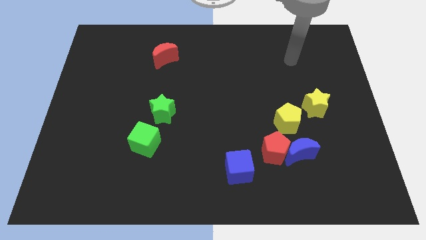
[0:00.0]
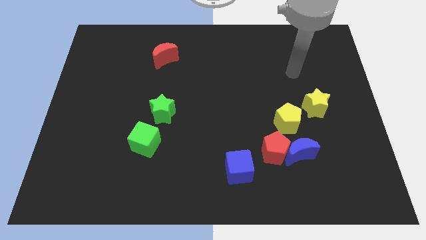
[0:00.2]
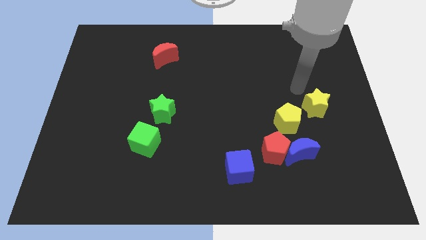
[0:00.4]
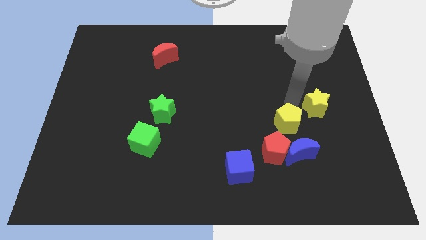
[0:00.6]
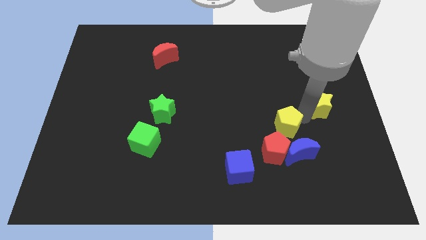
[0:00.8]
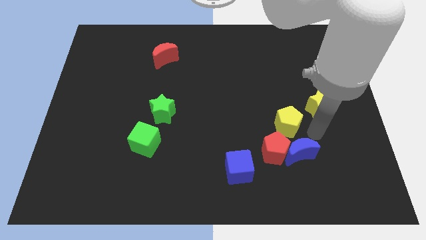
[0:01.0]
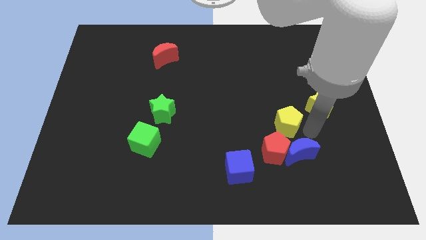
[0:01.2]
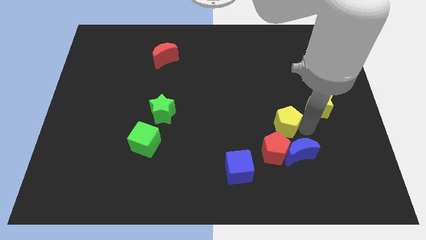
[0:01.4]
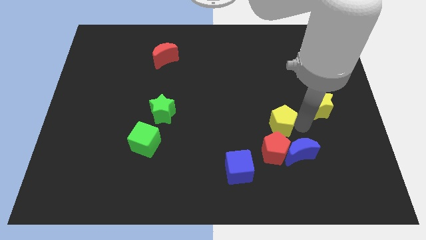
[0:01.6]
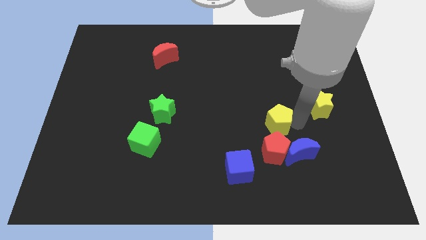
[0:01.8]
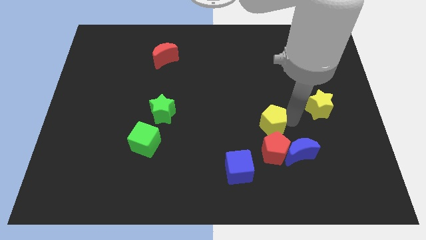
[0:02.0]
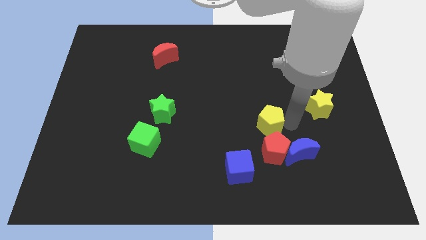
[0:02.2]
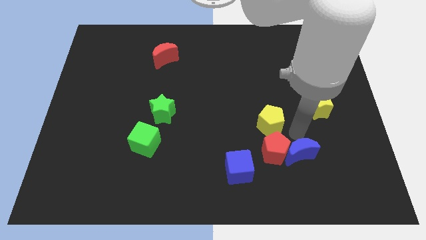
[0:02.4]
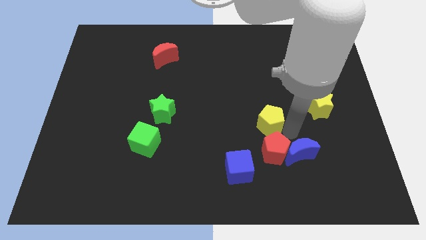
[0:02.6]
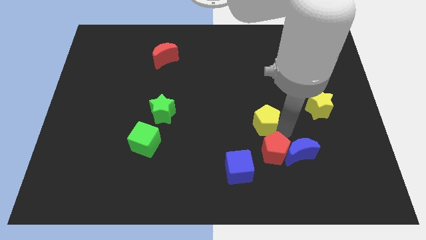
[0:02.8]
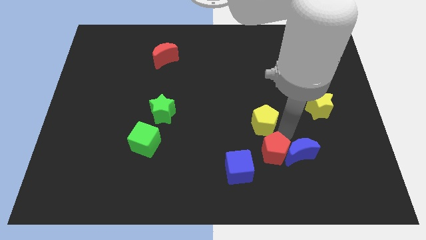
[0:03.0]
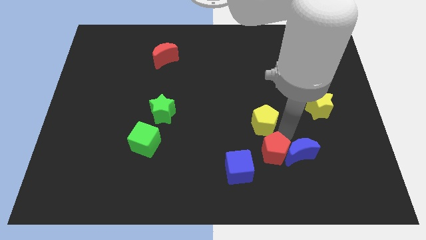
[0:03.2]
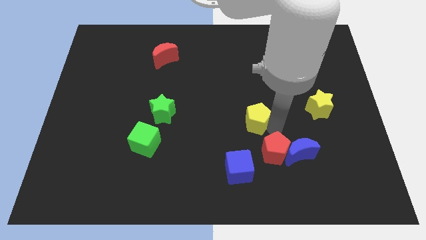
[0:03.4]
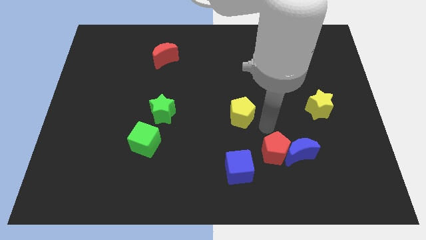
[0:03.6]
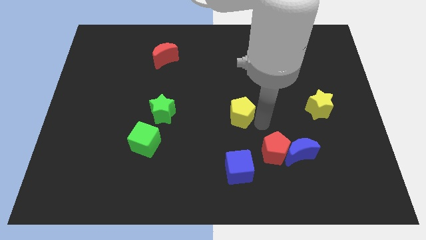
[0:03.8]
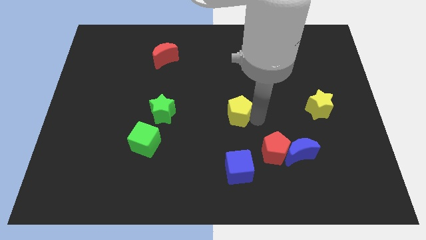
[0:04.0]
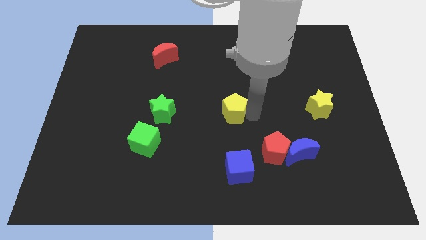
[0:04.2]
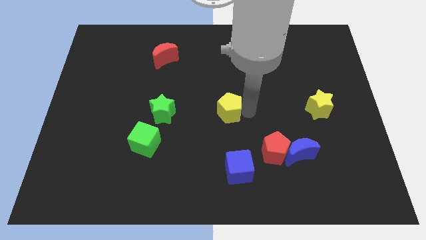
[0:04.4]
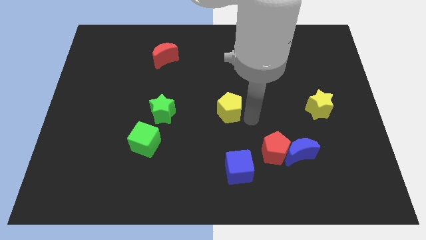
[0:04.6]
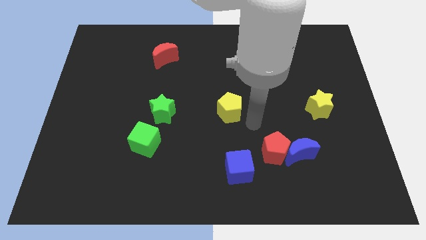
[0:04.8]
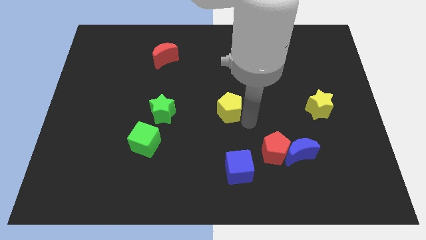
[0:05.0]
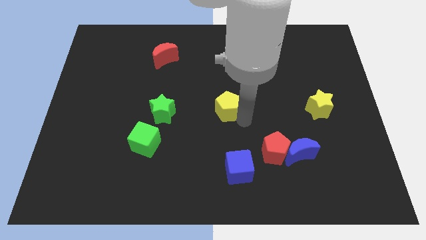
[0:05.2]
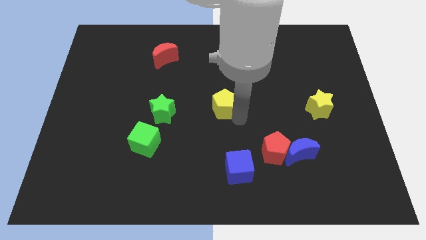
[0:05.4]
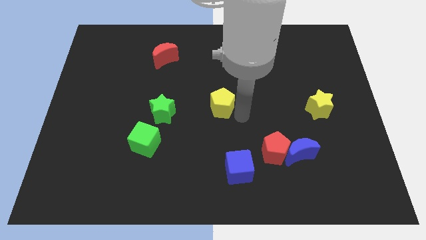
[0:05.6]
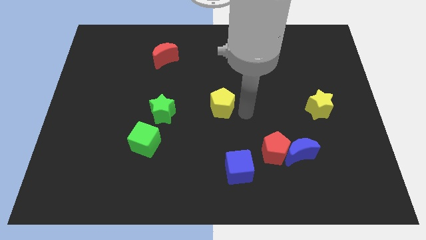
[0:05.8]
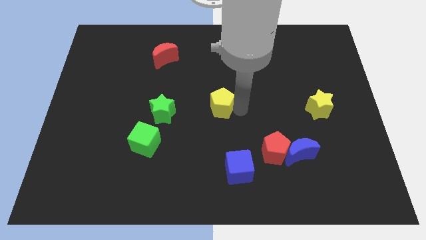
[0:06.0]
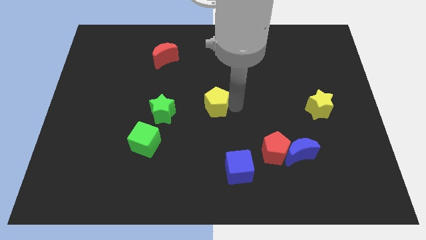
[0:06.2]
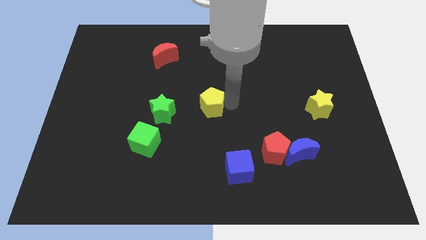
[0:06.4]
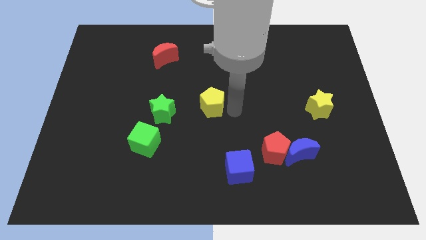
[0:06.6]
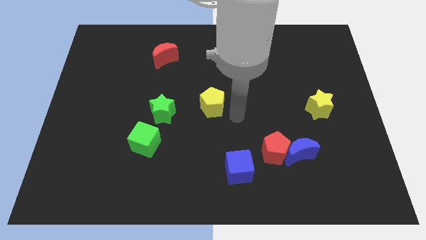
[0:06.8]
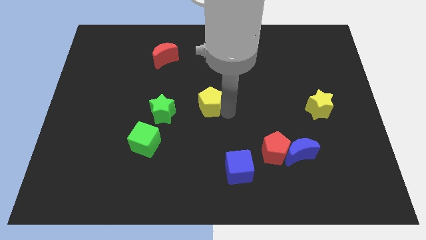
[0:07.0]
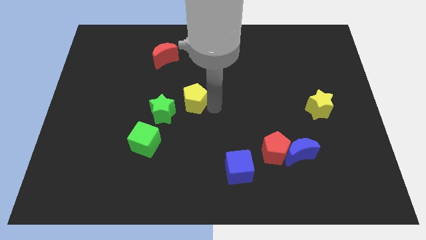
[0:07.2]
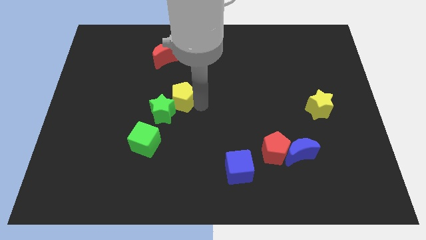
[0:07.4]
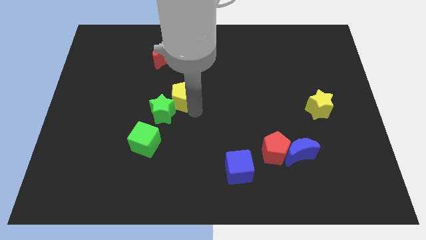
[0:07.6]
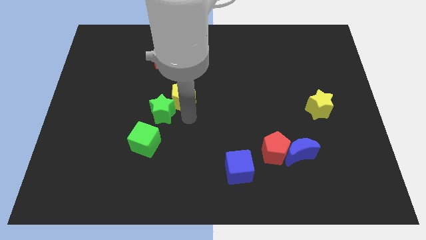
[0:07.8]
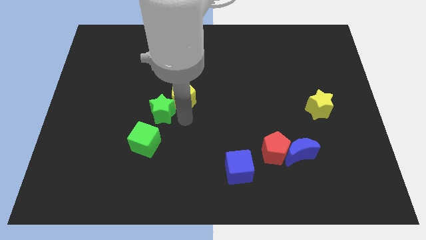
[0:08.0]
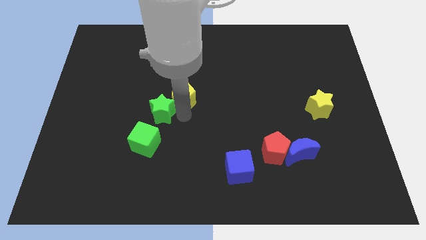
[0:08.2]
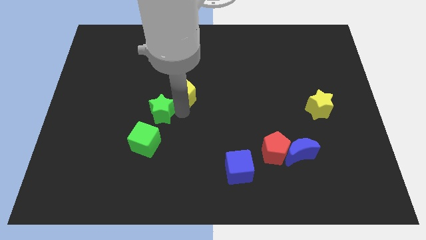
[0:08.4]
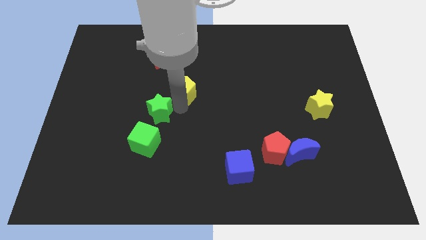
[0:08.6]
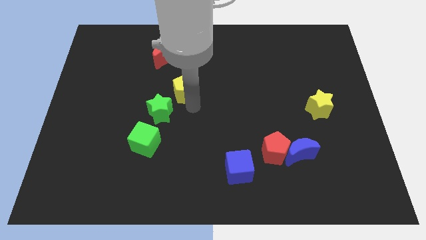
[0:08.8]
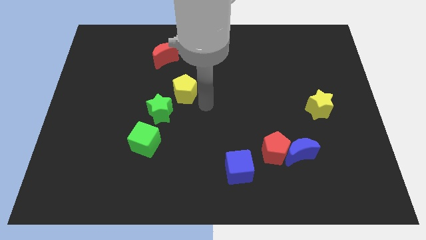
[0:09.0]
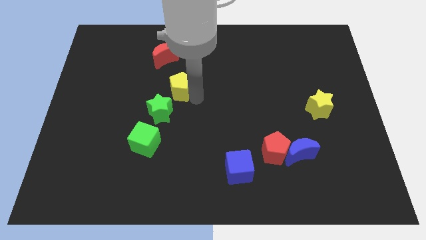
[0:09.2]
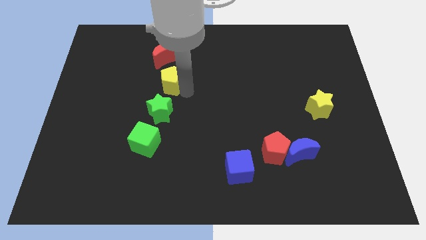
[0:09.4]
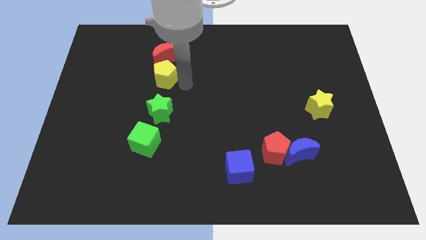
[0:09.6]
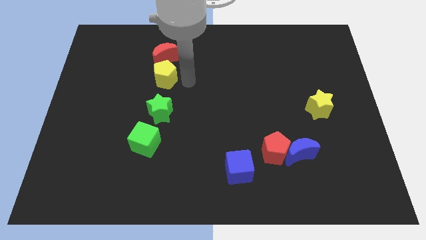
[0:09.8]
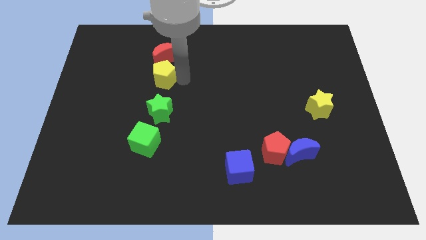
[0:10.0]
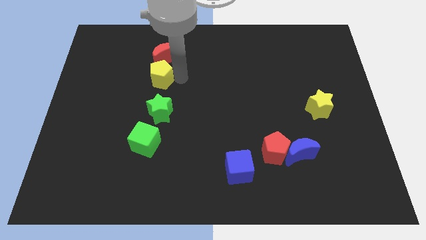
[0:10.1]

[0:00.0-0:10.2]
slide the yellow pentagon to the bottom left of the red moon

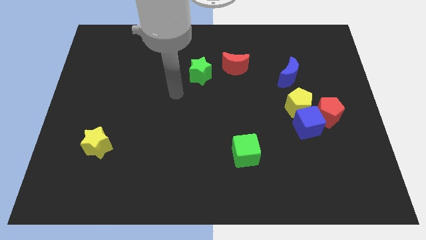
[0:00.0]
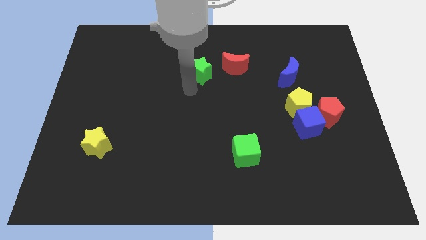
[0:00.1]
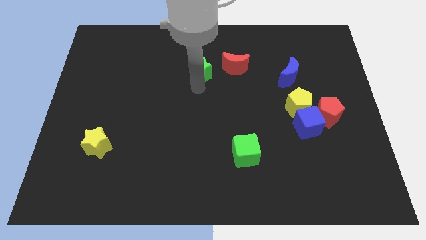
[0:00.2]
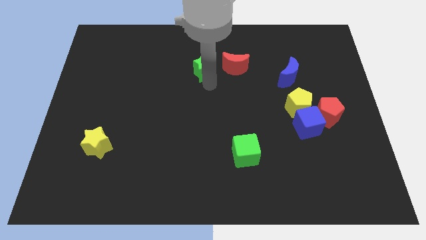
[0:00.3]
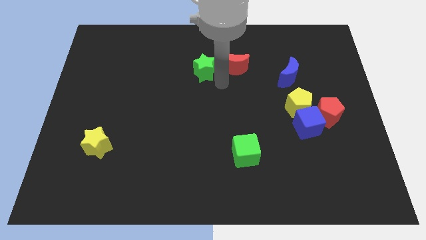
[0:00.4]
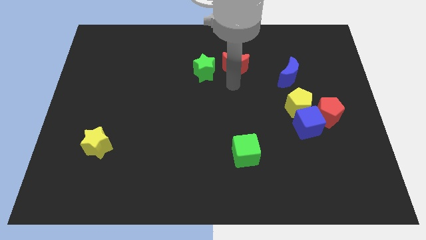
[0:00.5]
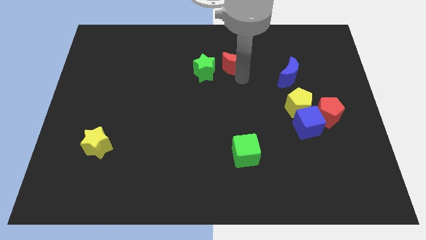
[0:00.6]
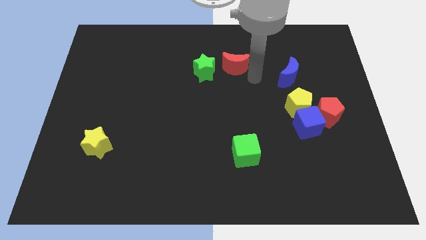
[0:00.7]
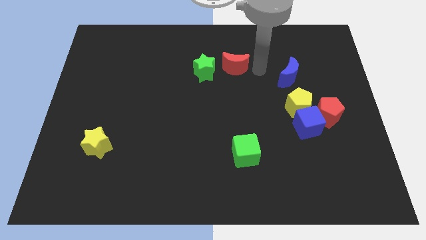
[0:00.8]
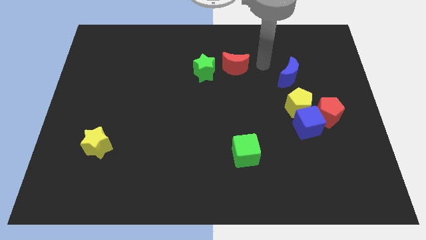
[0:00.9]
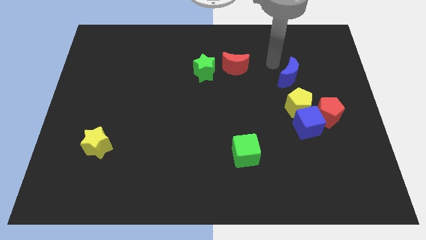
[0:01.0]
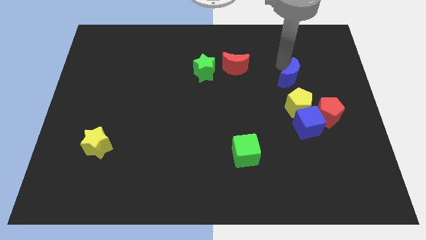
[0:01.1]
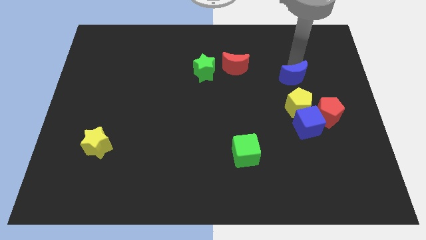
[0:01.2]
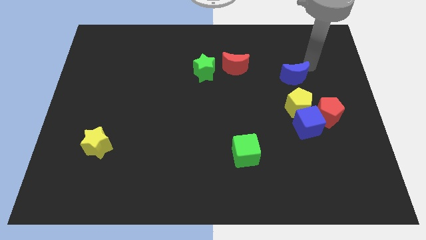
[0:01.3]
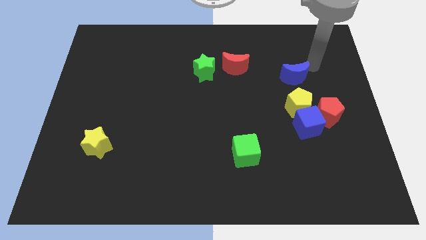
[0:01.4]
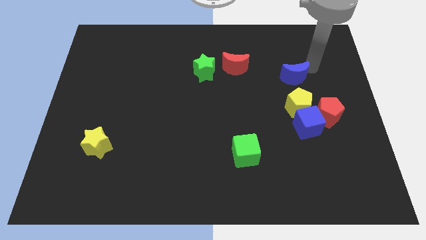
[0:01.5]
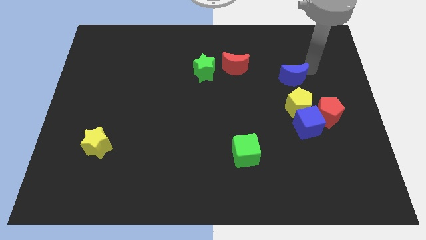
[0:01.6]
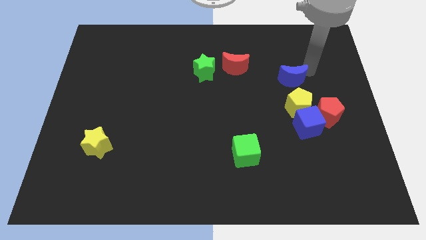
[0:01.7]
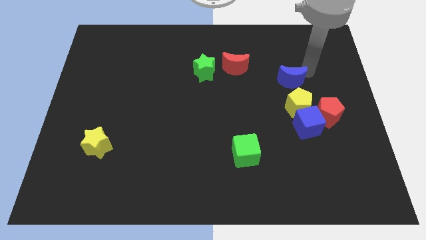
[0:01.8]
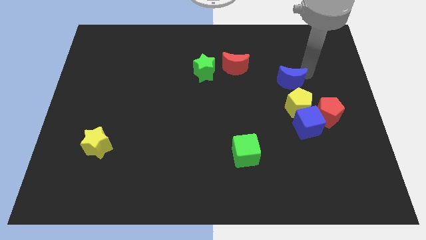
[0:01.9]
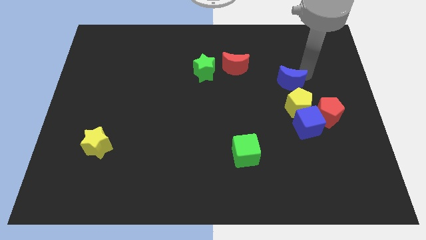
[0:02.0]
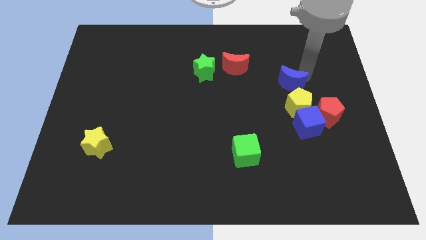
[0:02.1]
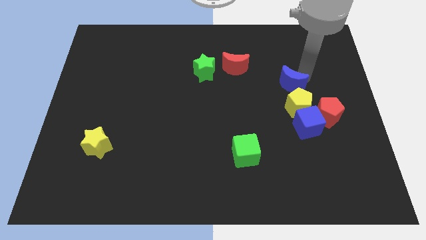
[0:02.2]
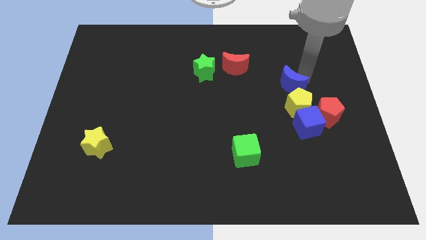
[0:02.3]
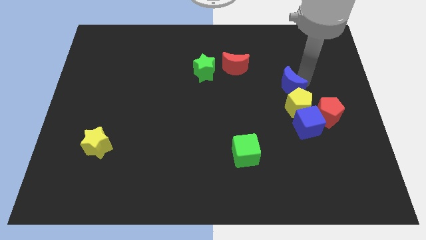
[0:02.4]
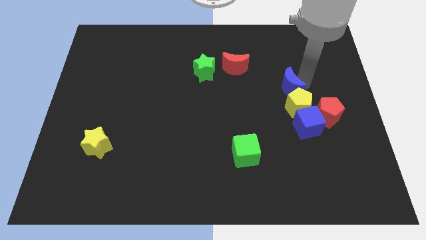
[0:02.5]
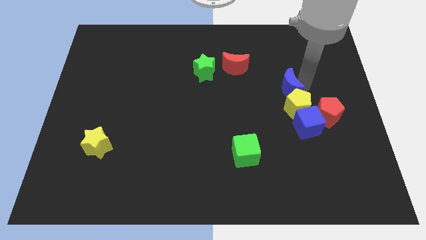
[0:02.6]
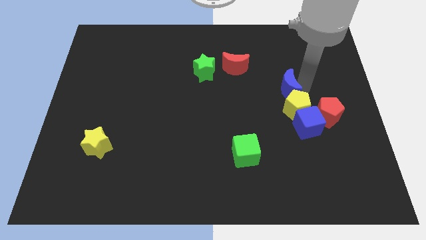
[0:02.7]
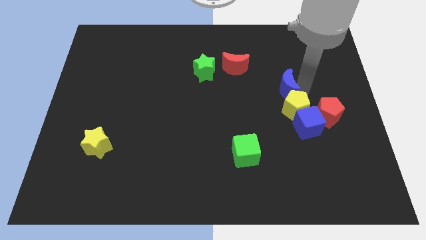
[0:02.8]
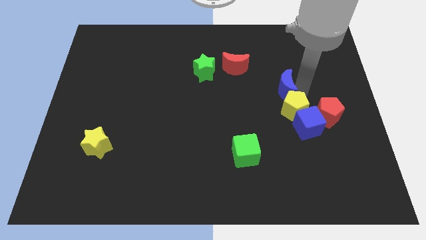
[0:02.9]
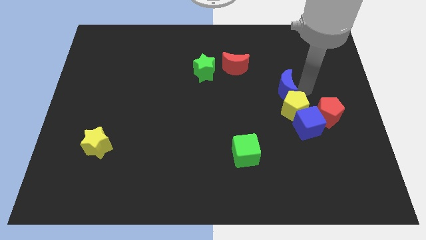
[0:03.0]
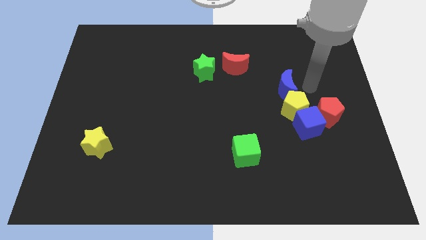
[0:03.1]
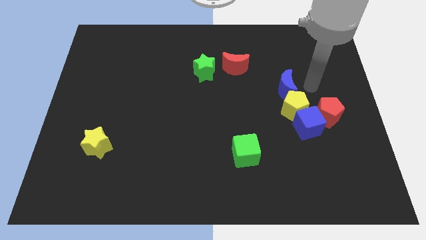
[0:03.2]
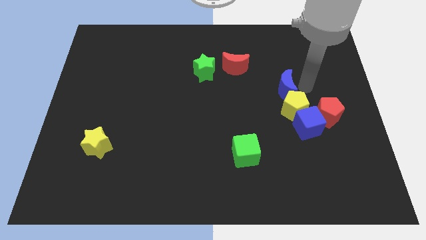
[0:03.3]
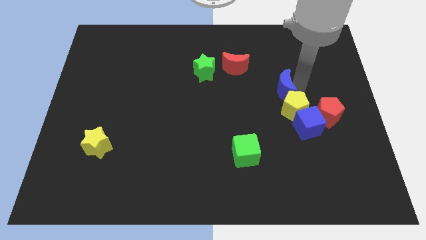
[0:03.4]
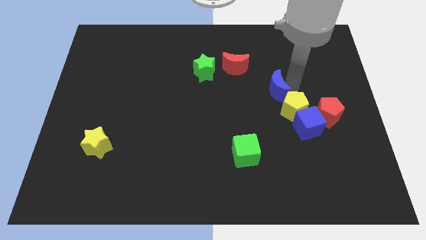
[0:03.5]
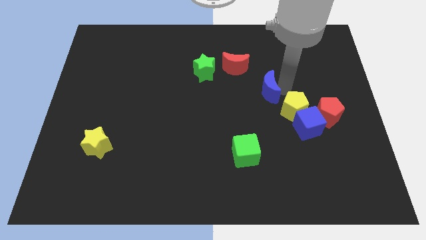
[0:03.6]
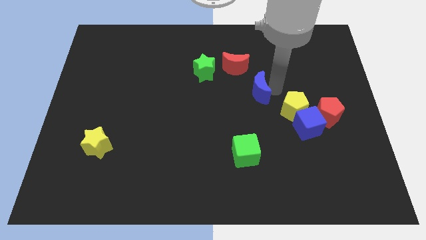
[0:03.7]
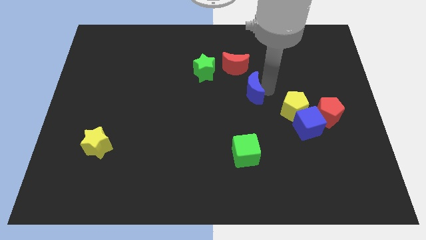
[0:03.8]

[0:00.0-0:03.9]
slide the blue moon to the bottom of the red moon
